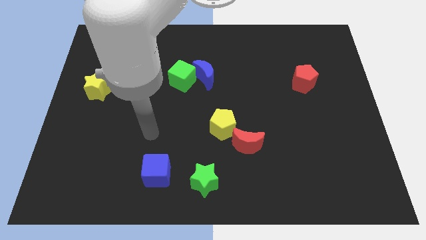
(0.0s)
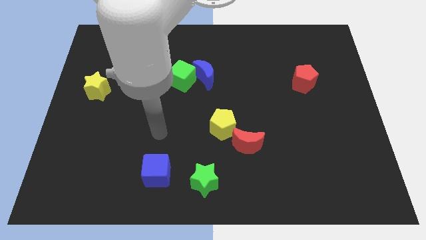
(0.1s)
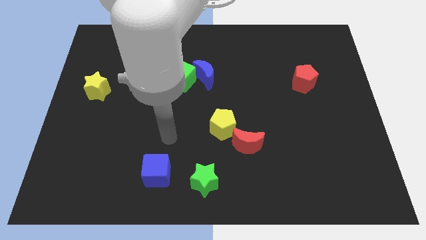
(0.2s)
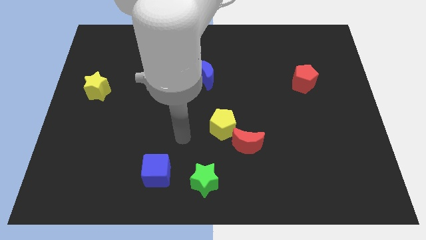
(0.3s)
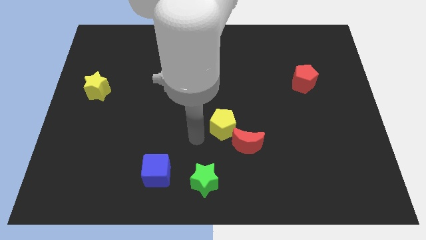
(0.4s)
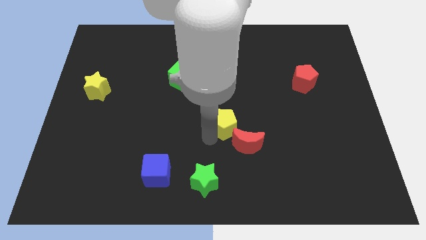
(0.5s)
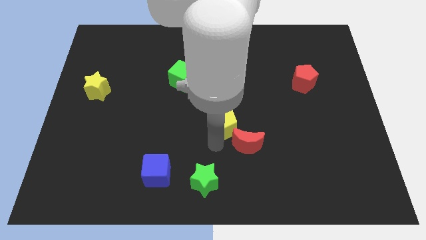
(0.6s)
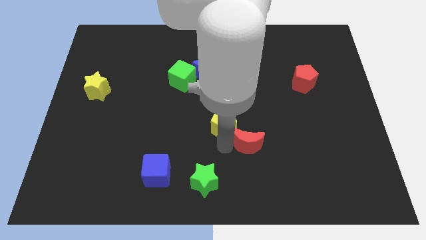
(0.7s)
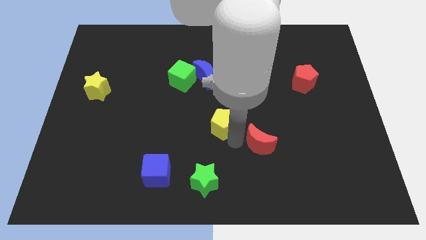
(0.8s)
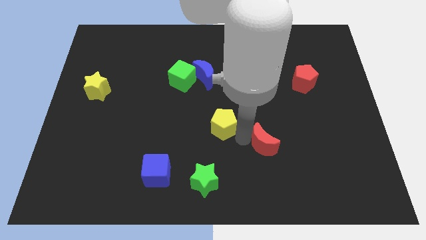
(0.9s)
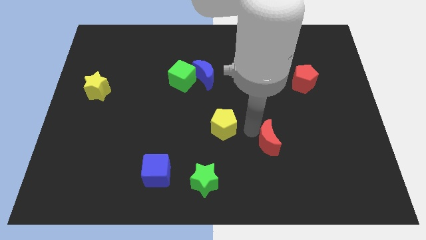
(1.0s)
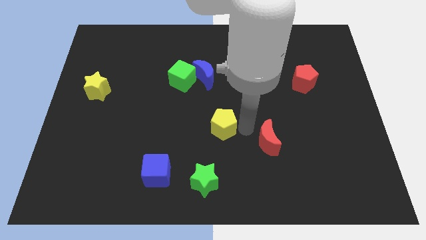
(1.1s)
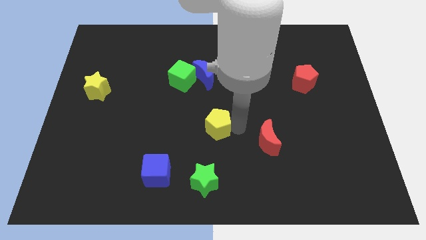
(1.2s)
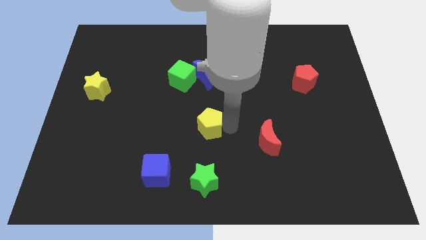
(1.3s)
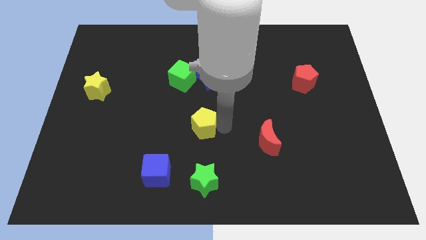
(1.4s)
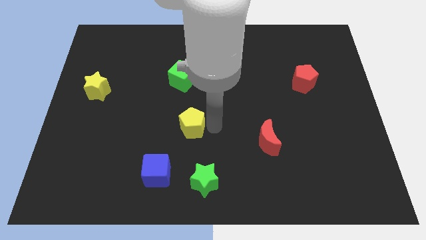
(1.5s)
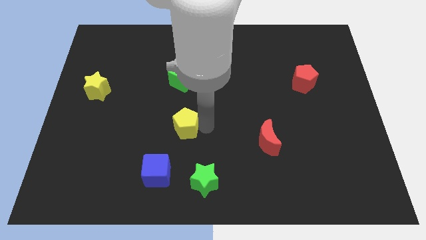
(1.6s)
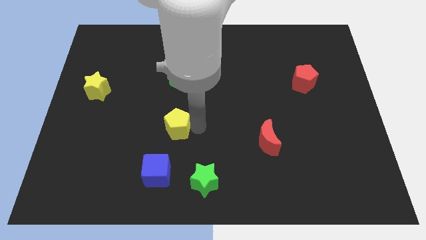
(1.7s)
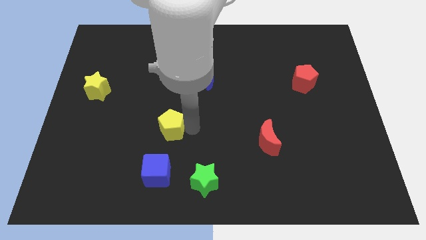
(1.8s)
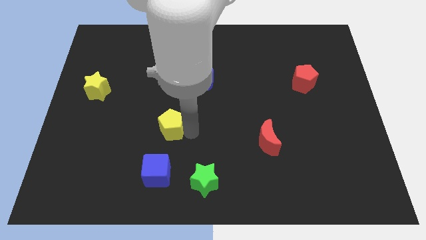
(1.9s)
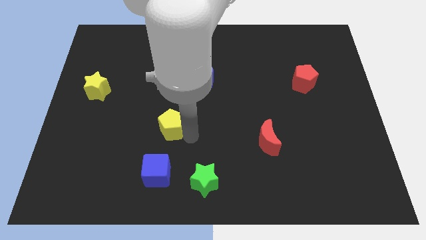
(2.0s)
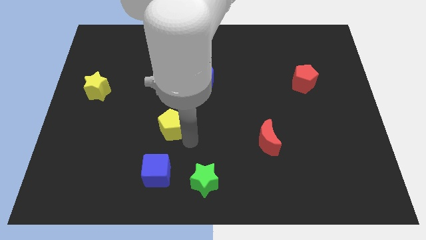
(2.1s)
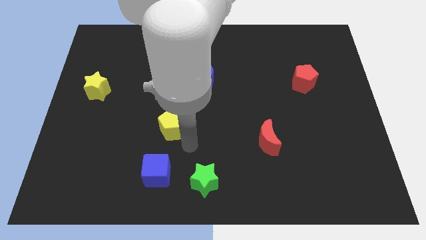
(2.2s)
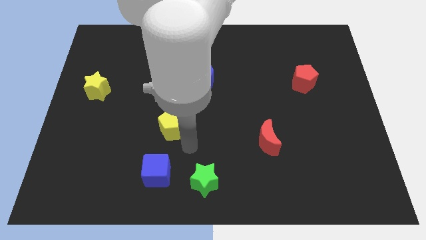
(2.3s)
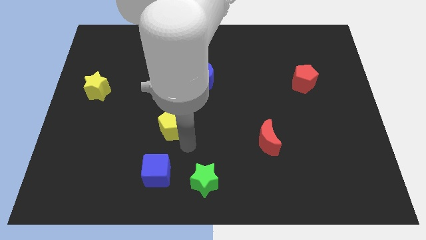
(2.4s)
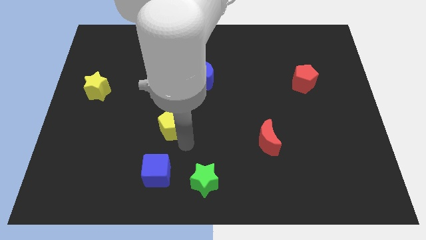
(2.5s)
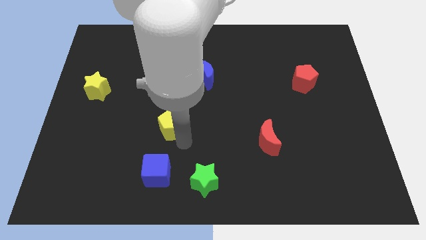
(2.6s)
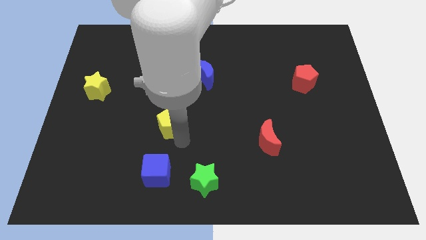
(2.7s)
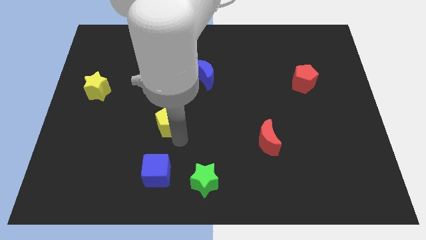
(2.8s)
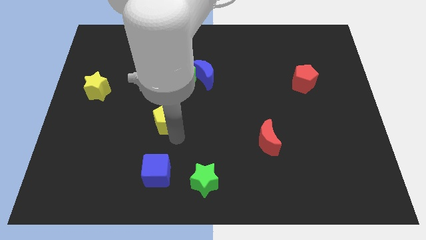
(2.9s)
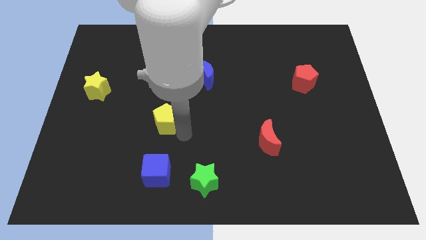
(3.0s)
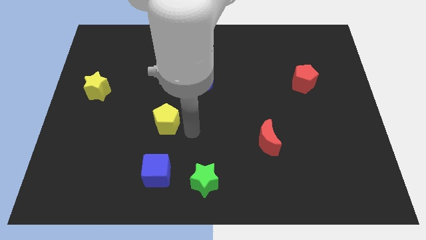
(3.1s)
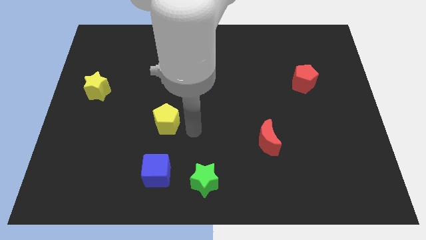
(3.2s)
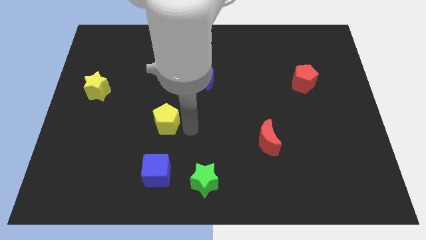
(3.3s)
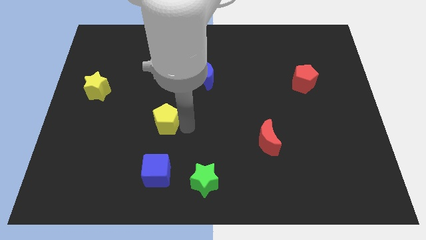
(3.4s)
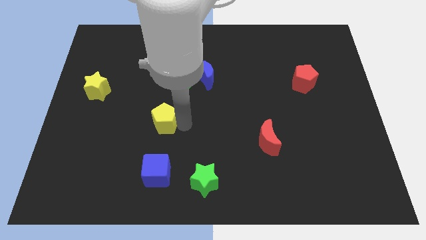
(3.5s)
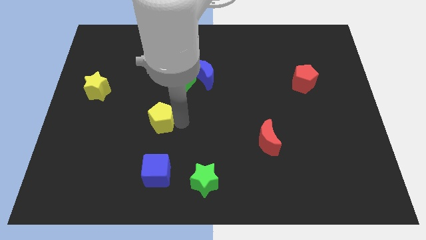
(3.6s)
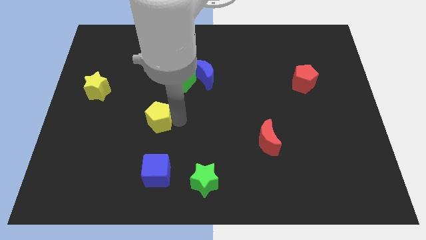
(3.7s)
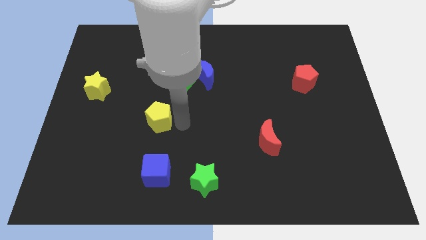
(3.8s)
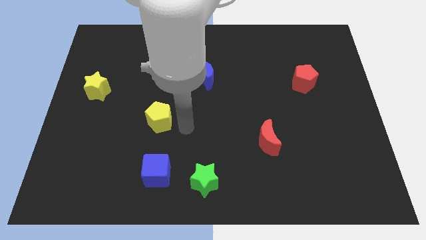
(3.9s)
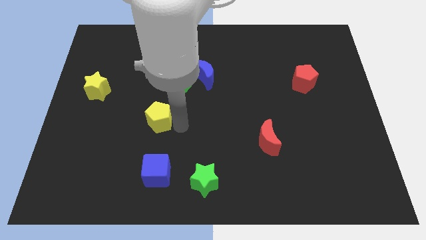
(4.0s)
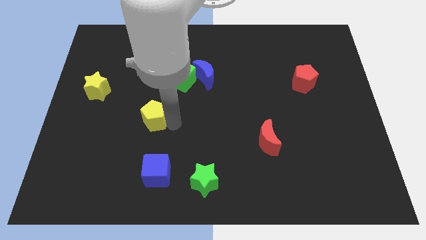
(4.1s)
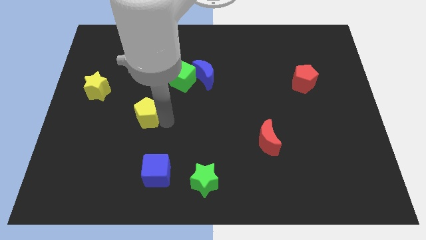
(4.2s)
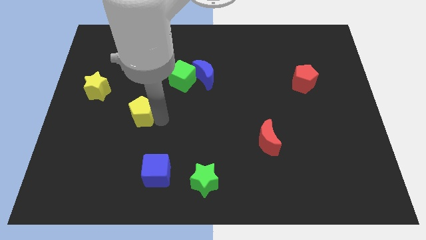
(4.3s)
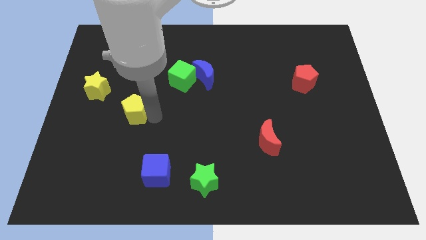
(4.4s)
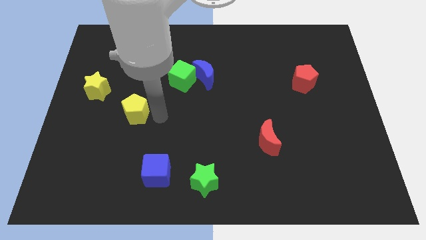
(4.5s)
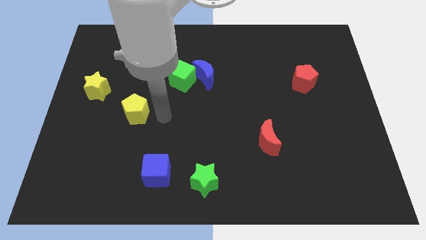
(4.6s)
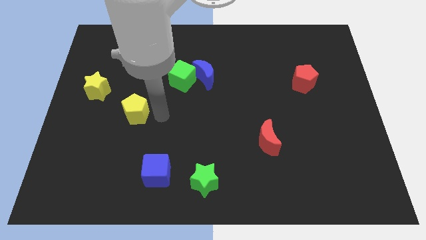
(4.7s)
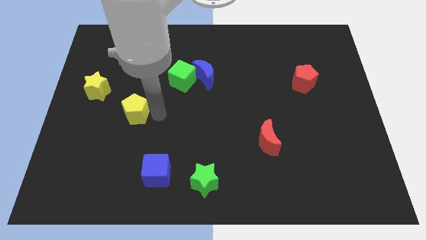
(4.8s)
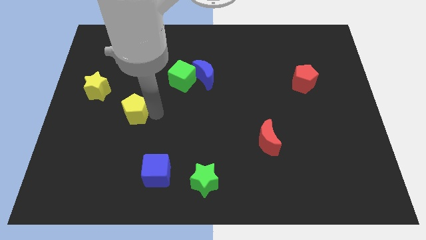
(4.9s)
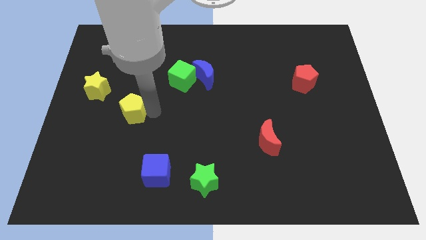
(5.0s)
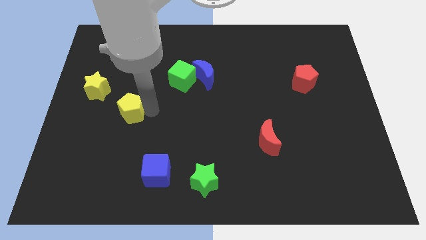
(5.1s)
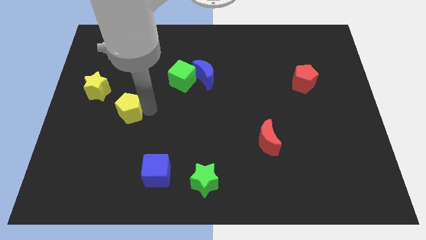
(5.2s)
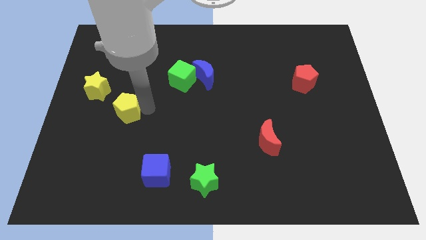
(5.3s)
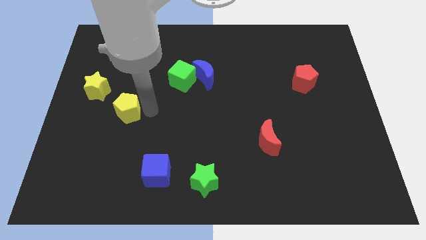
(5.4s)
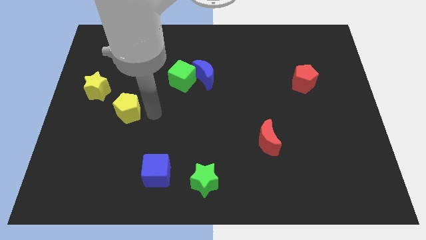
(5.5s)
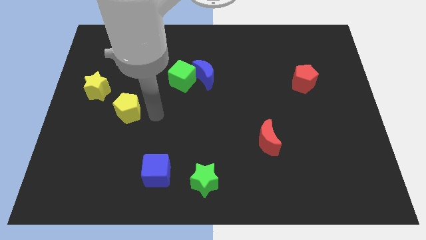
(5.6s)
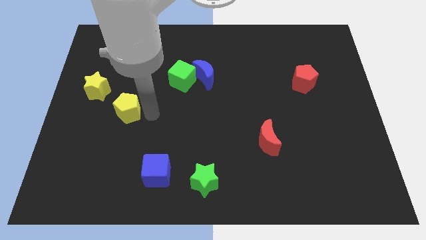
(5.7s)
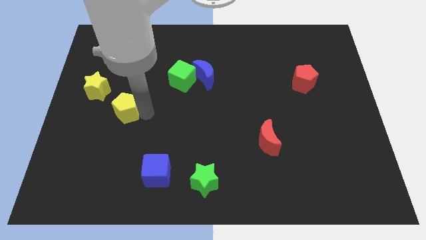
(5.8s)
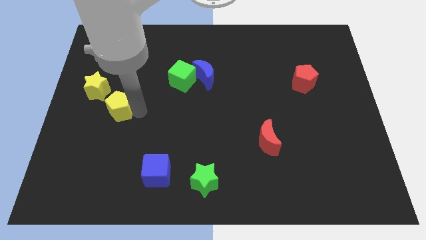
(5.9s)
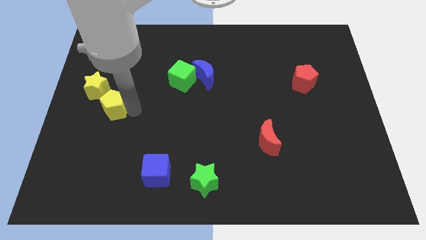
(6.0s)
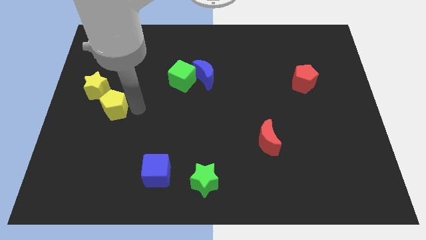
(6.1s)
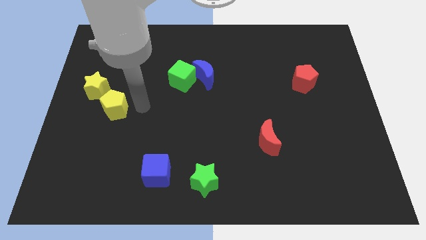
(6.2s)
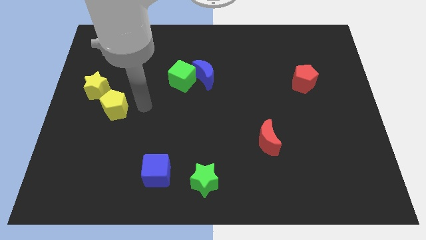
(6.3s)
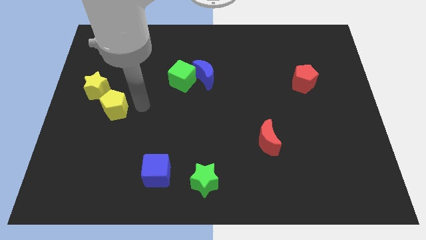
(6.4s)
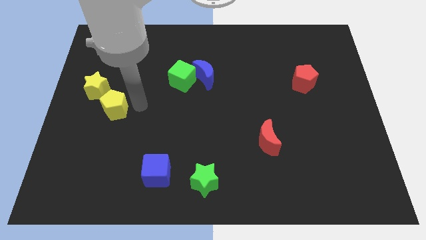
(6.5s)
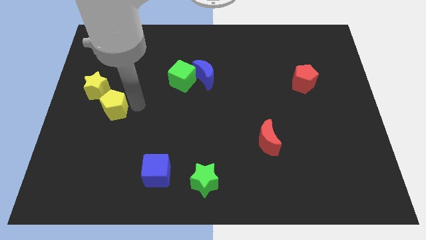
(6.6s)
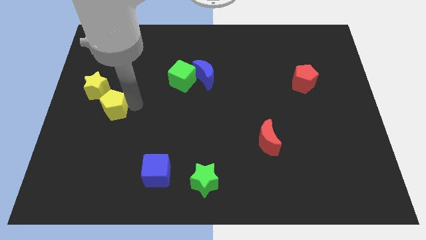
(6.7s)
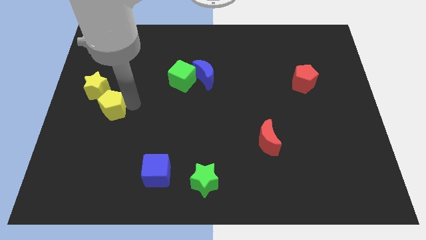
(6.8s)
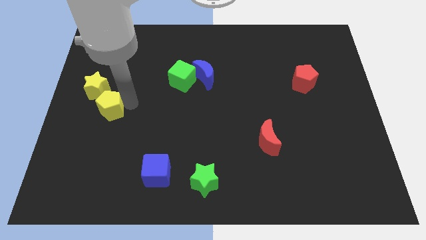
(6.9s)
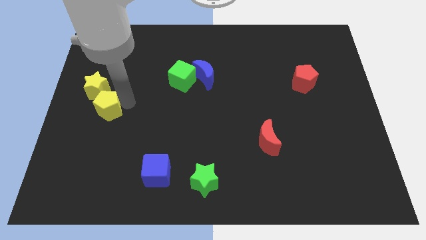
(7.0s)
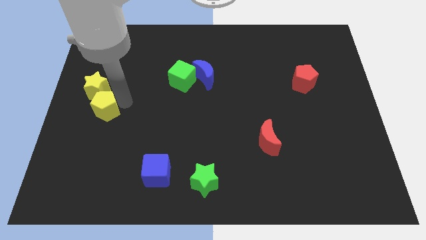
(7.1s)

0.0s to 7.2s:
push the yellow pentagon to the center left
